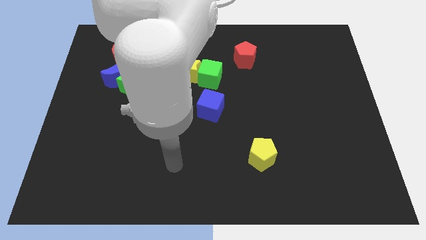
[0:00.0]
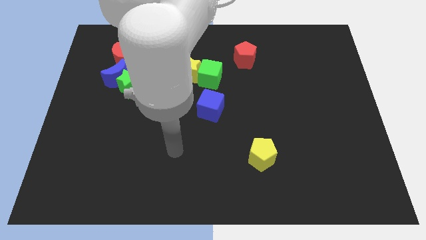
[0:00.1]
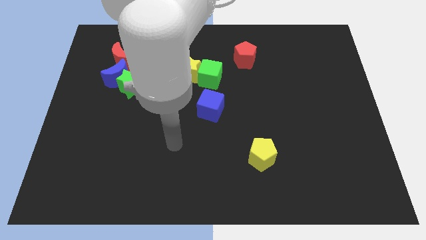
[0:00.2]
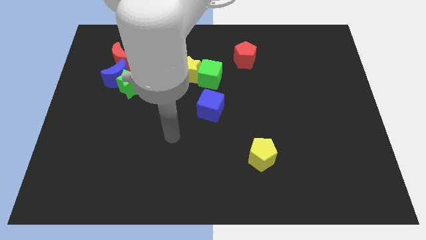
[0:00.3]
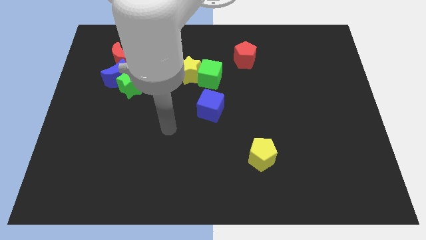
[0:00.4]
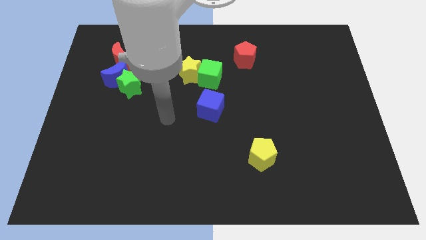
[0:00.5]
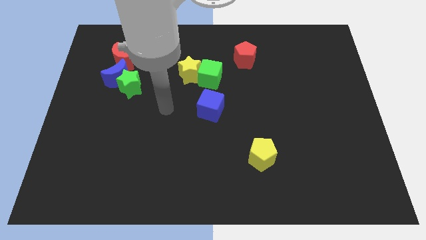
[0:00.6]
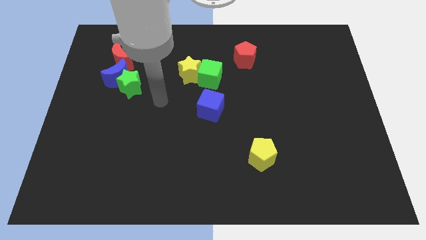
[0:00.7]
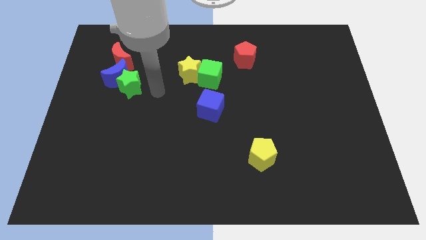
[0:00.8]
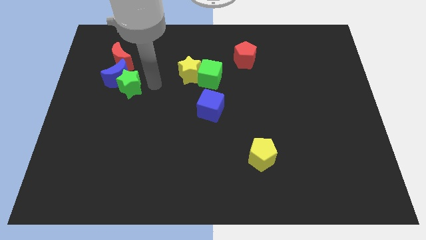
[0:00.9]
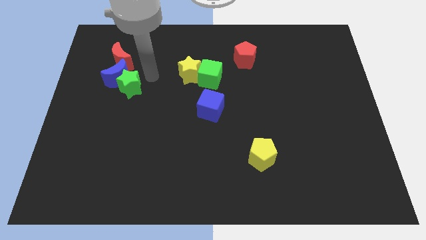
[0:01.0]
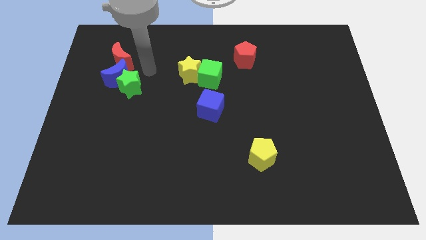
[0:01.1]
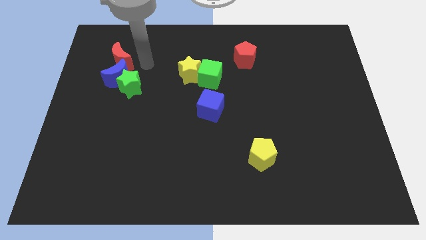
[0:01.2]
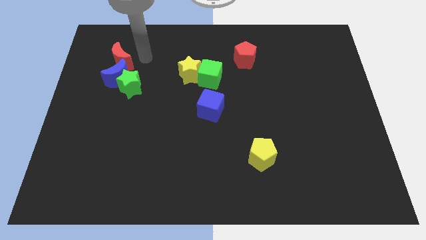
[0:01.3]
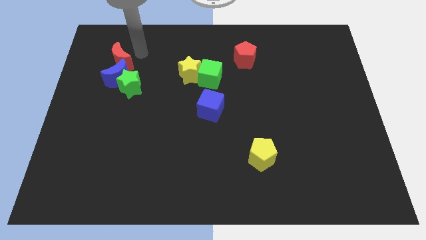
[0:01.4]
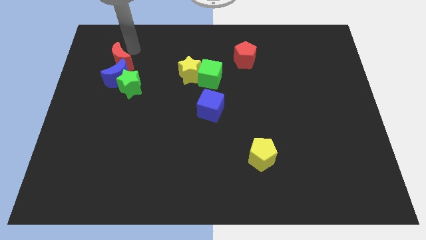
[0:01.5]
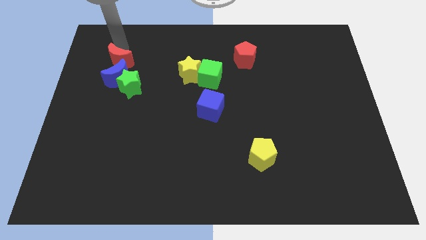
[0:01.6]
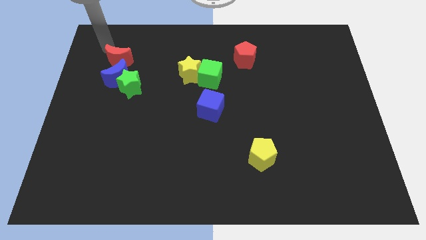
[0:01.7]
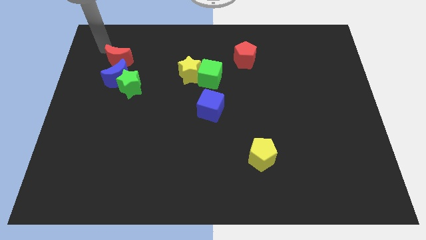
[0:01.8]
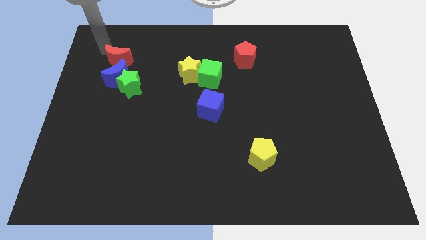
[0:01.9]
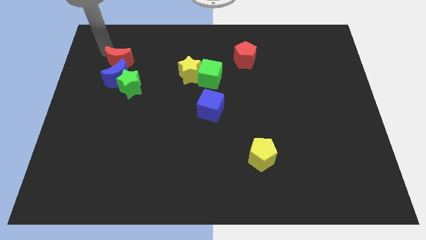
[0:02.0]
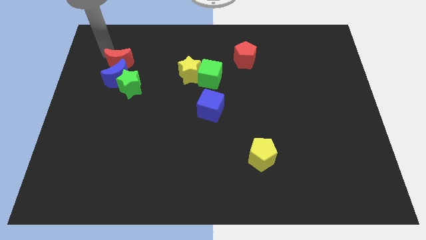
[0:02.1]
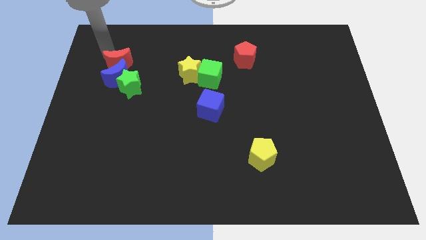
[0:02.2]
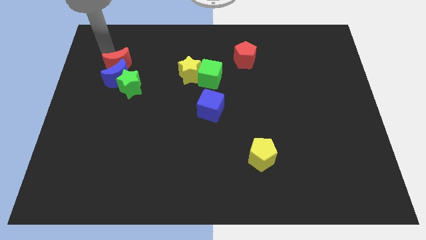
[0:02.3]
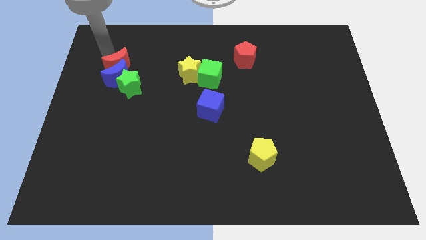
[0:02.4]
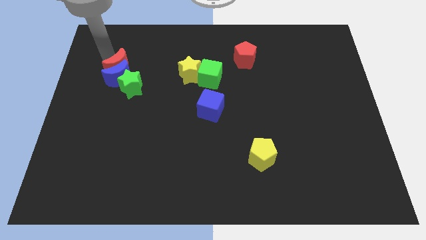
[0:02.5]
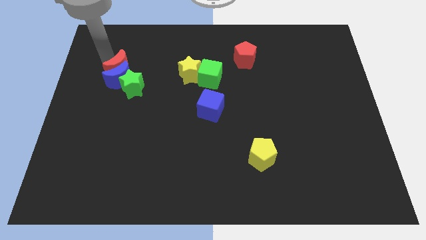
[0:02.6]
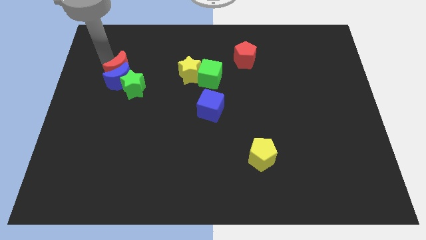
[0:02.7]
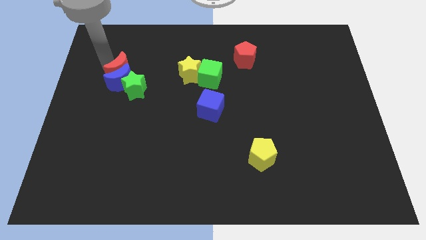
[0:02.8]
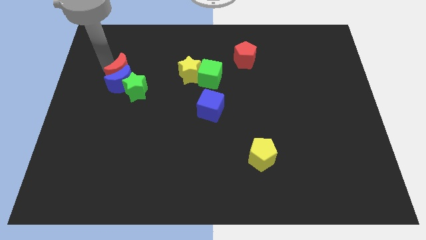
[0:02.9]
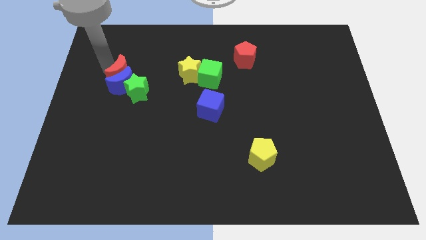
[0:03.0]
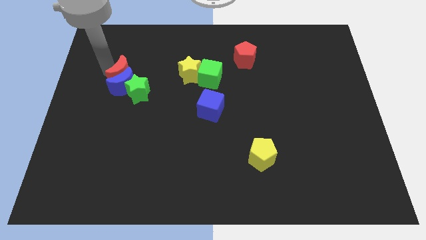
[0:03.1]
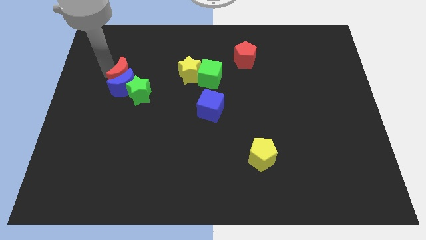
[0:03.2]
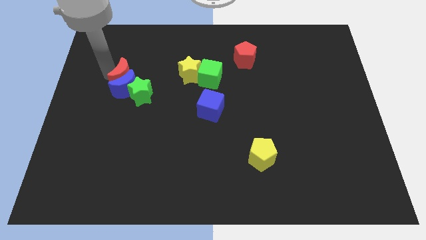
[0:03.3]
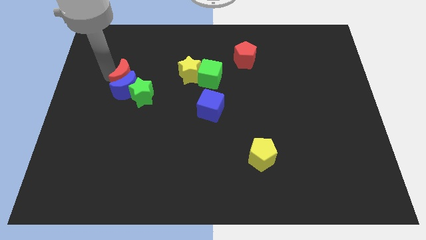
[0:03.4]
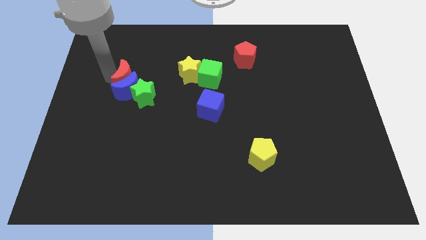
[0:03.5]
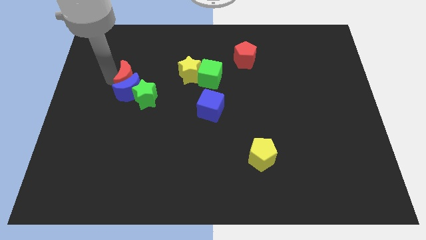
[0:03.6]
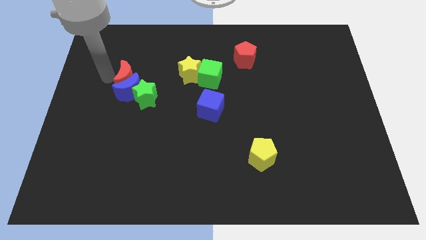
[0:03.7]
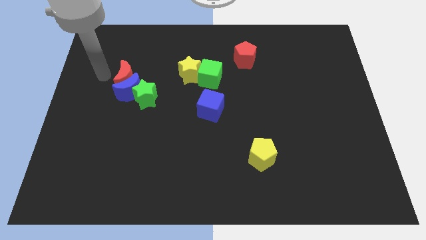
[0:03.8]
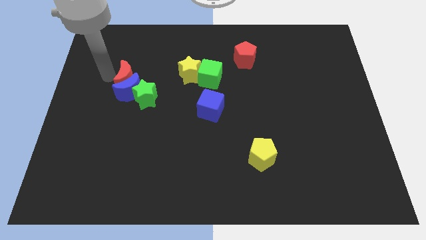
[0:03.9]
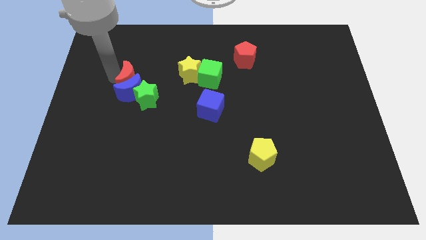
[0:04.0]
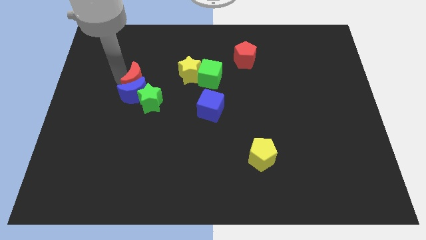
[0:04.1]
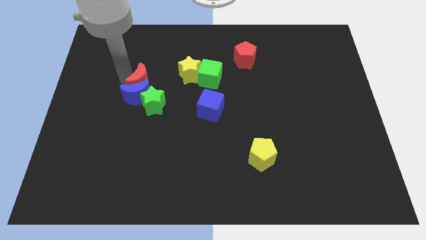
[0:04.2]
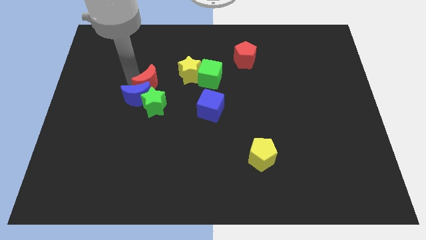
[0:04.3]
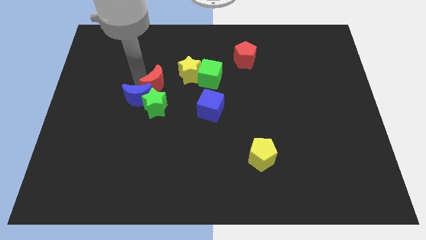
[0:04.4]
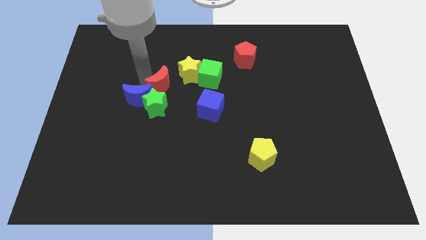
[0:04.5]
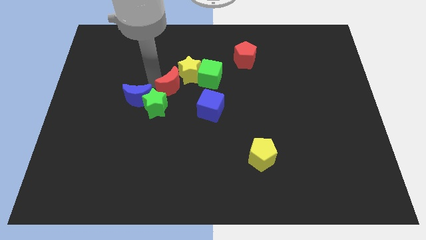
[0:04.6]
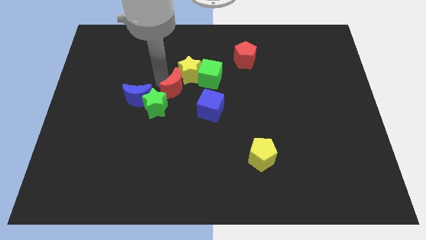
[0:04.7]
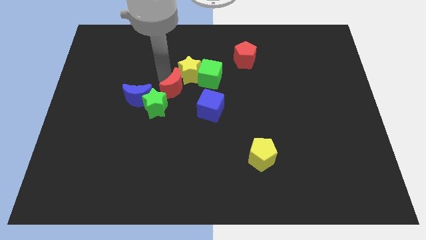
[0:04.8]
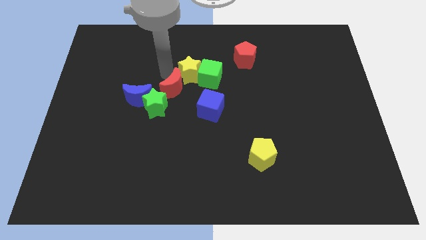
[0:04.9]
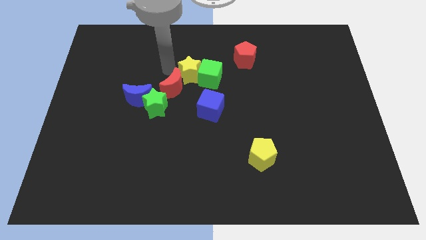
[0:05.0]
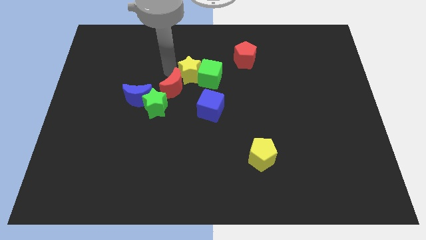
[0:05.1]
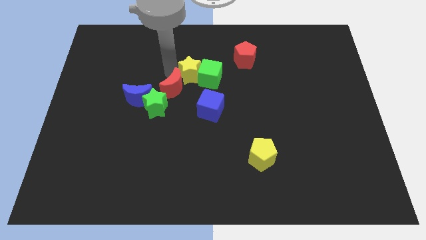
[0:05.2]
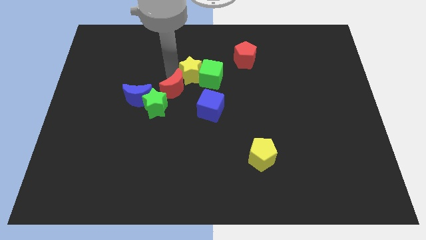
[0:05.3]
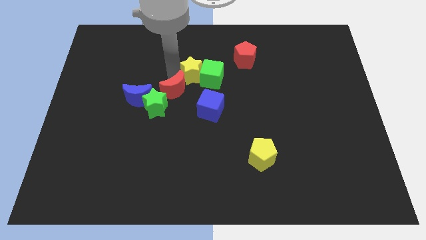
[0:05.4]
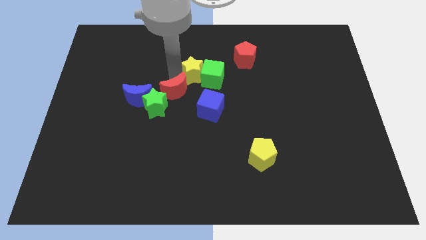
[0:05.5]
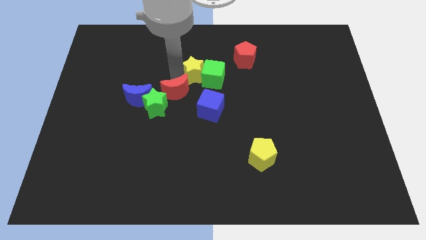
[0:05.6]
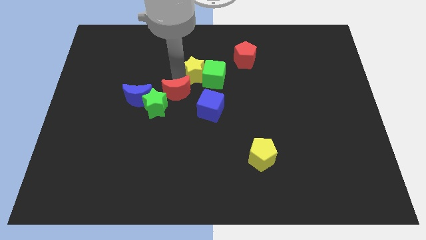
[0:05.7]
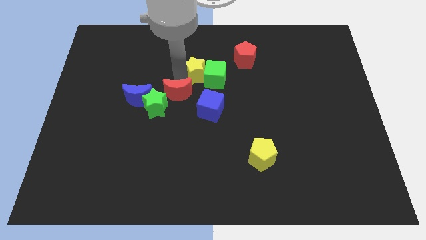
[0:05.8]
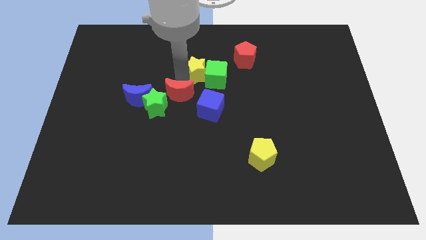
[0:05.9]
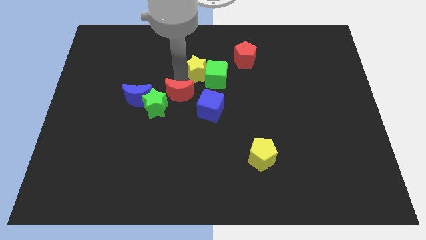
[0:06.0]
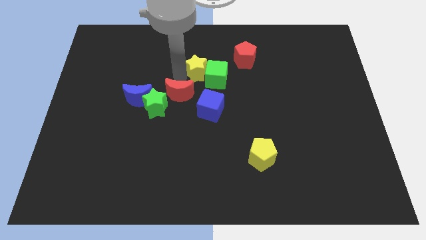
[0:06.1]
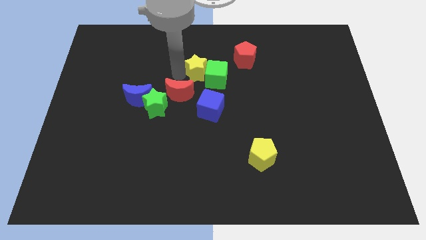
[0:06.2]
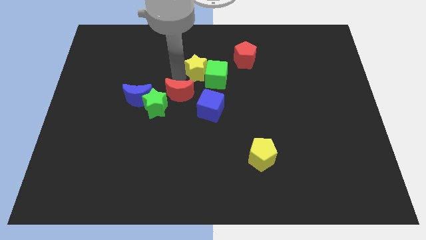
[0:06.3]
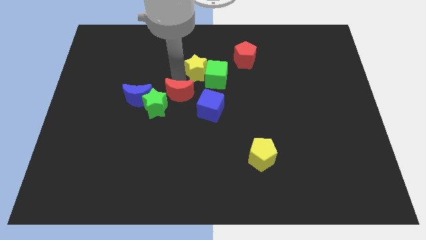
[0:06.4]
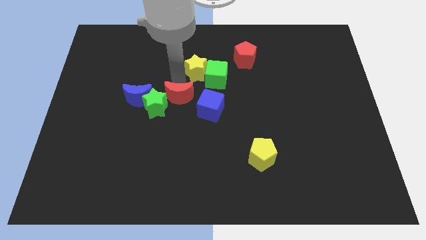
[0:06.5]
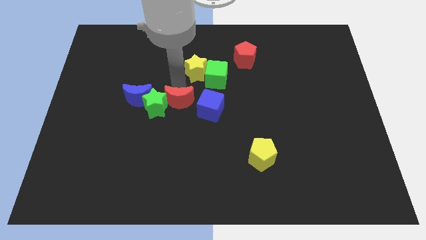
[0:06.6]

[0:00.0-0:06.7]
push the red moon downwards and right
